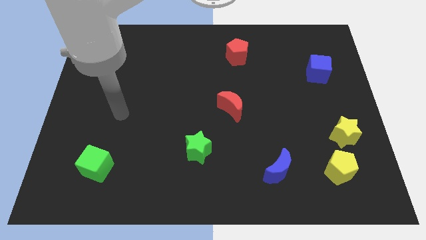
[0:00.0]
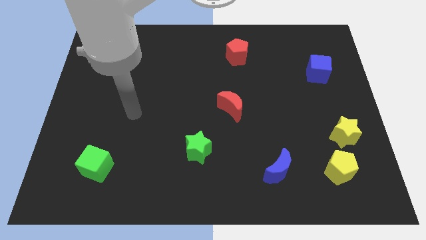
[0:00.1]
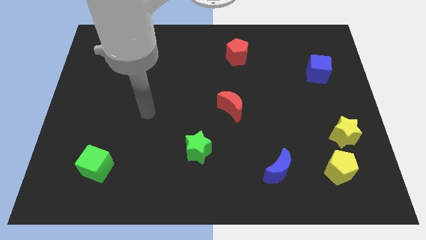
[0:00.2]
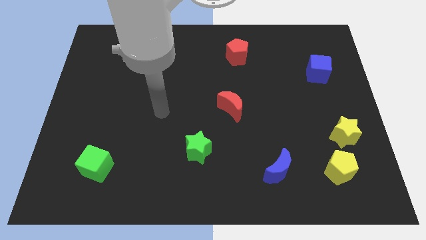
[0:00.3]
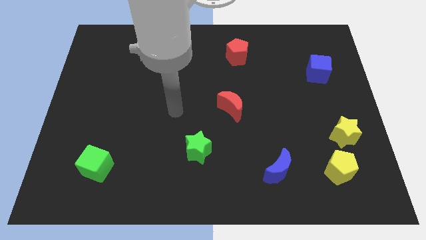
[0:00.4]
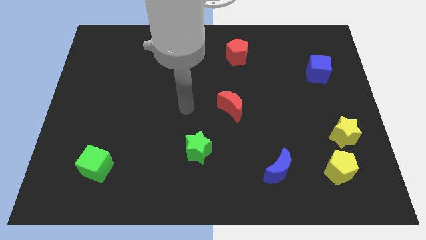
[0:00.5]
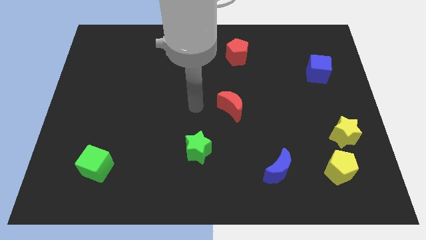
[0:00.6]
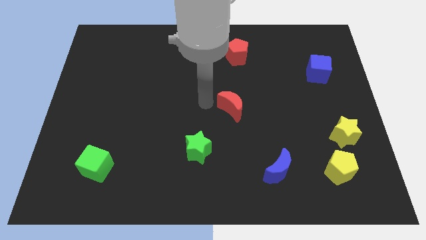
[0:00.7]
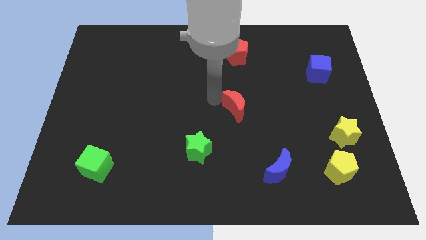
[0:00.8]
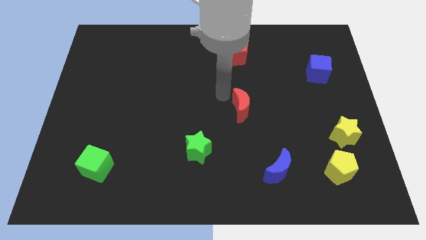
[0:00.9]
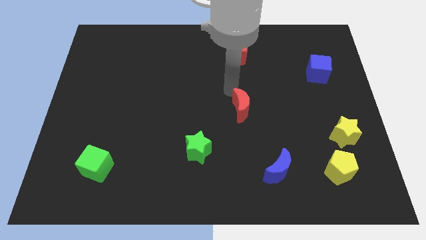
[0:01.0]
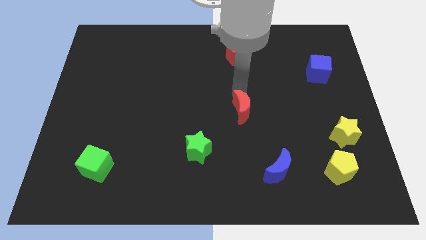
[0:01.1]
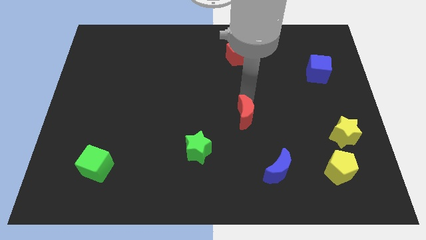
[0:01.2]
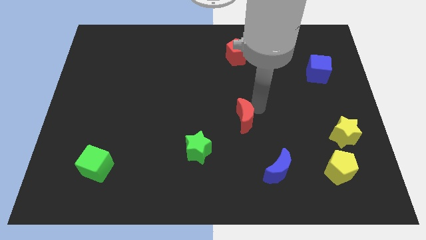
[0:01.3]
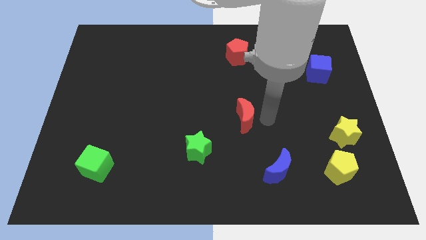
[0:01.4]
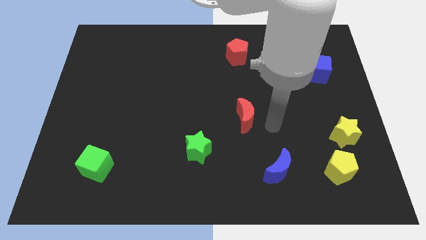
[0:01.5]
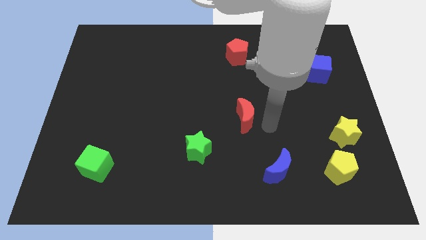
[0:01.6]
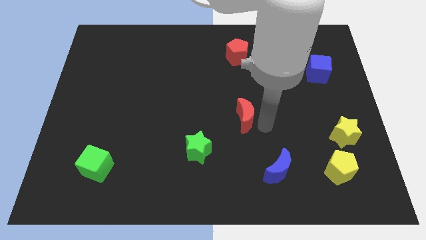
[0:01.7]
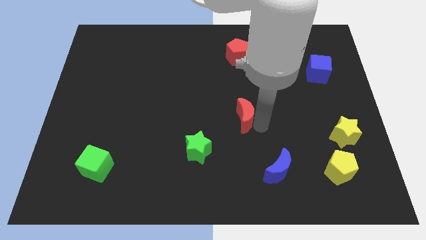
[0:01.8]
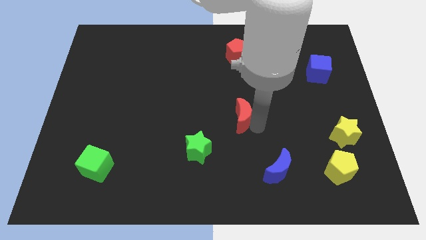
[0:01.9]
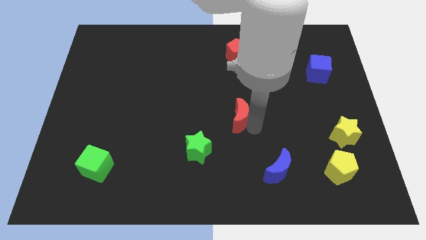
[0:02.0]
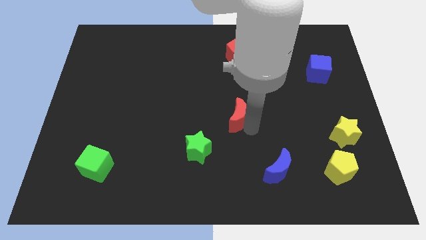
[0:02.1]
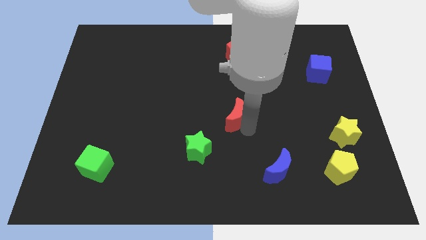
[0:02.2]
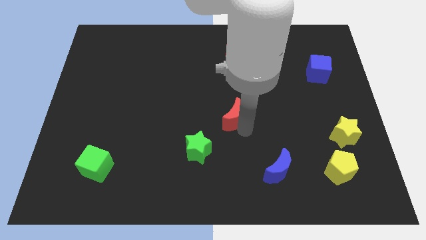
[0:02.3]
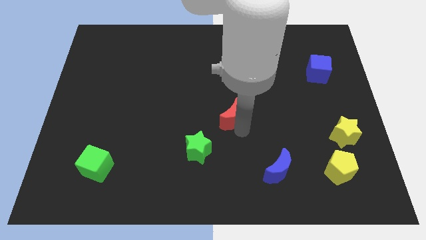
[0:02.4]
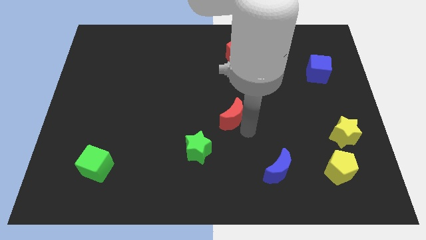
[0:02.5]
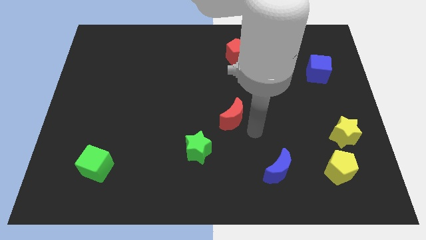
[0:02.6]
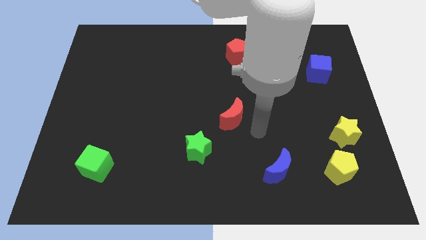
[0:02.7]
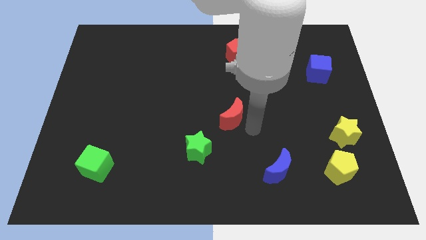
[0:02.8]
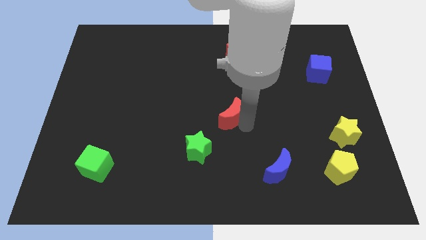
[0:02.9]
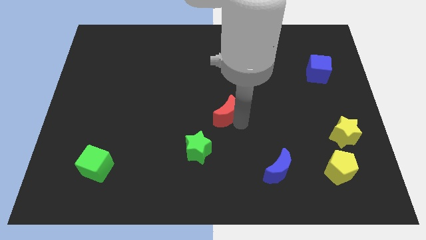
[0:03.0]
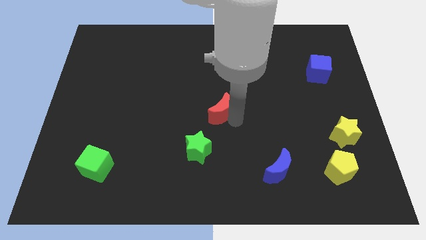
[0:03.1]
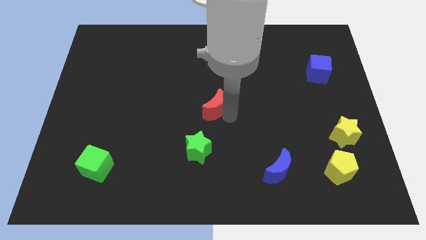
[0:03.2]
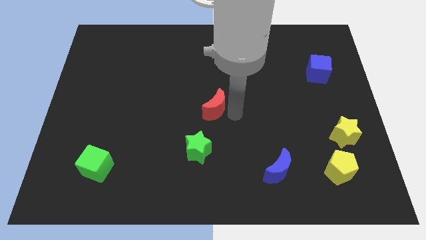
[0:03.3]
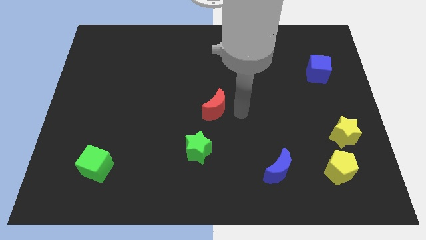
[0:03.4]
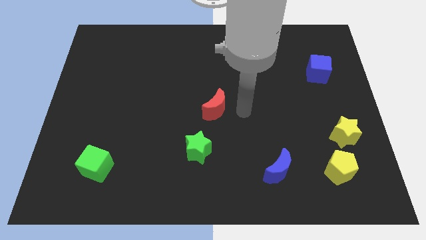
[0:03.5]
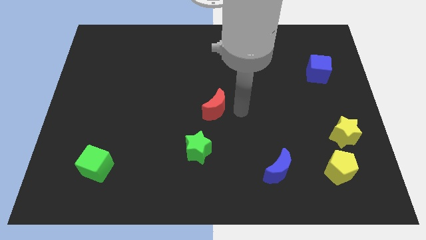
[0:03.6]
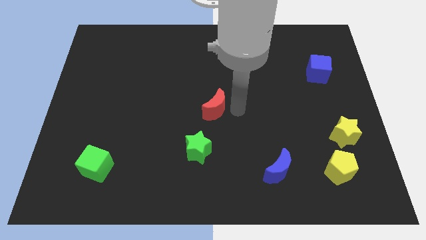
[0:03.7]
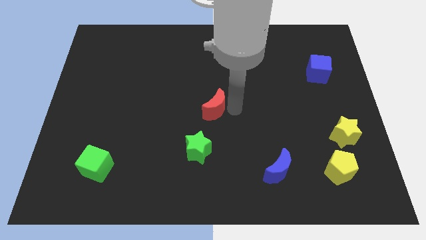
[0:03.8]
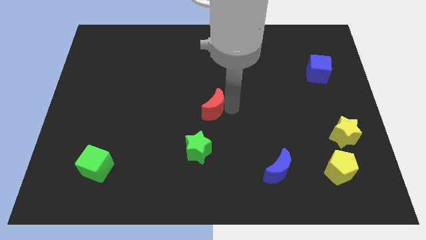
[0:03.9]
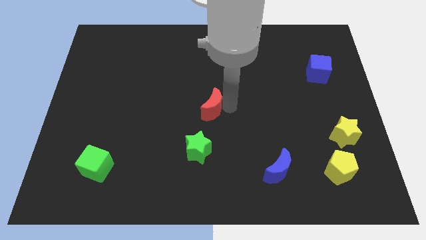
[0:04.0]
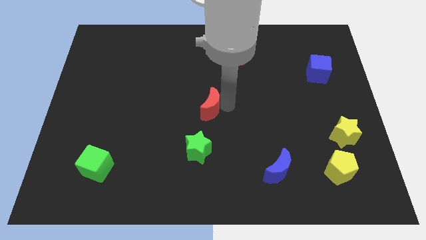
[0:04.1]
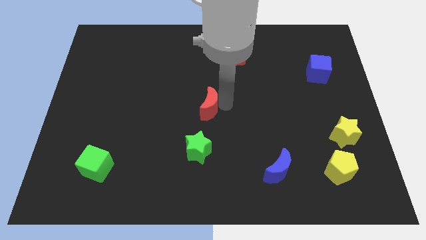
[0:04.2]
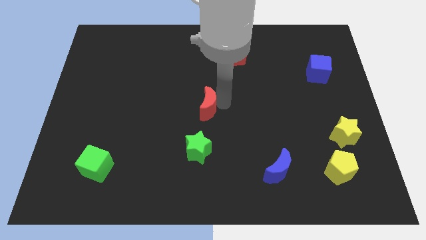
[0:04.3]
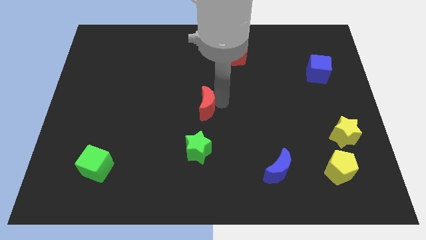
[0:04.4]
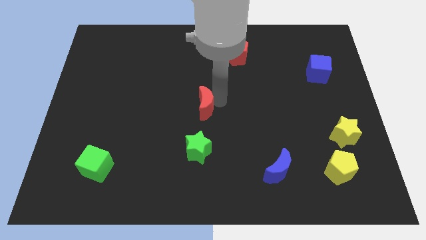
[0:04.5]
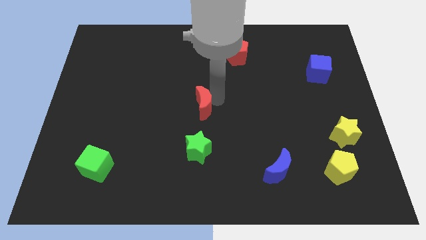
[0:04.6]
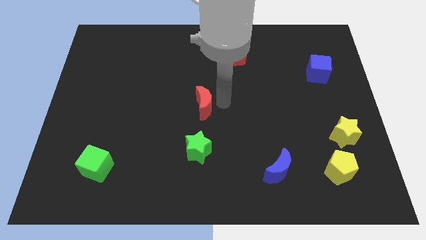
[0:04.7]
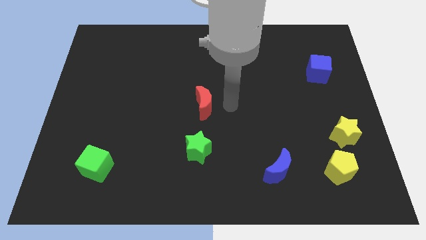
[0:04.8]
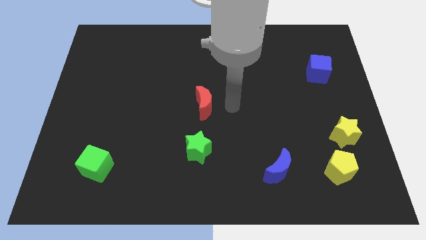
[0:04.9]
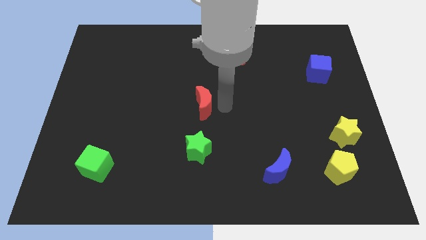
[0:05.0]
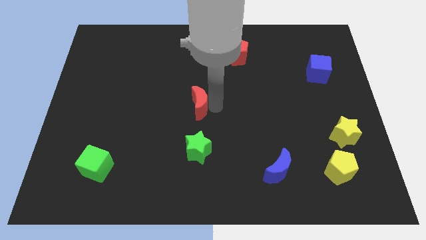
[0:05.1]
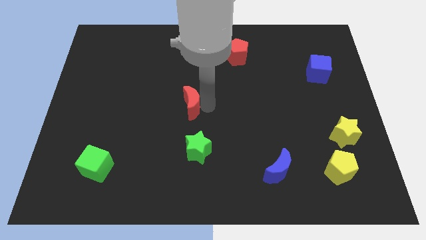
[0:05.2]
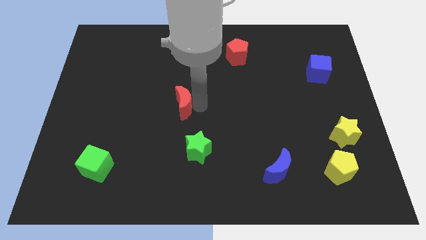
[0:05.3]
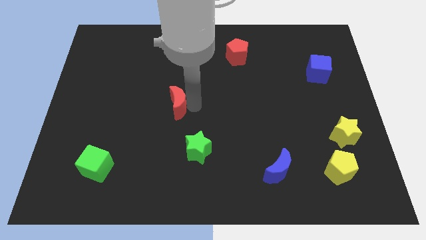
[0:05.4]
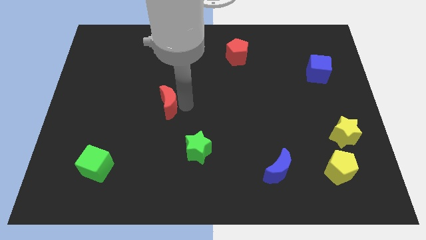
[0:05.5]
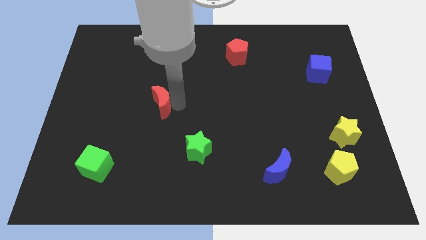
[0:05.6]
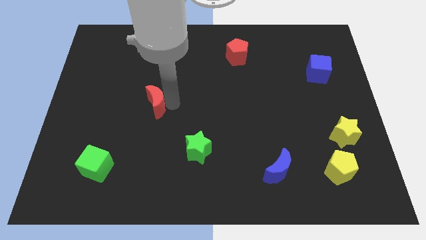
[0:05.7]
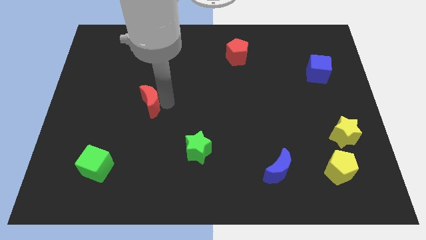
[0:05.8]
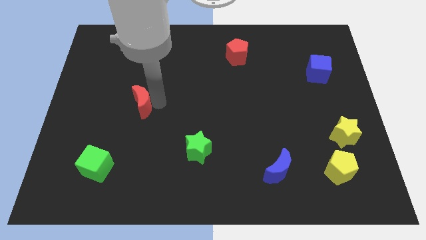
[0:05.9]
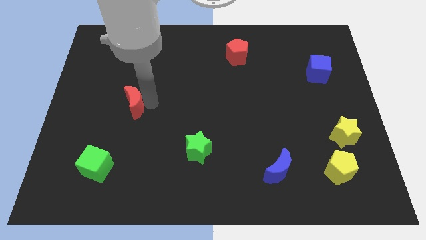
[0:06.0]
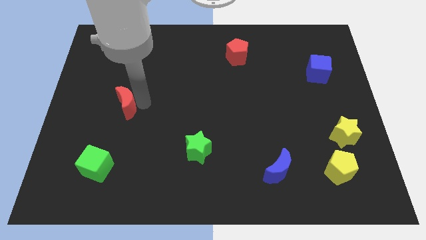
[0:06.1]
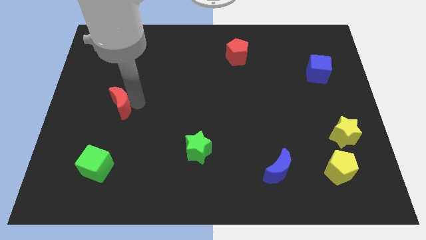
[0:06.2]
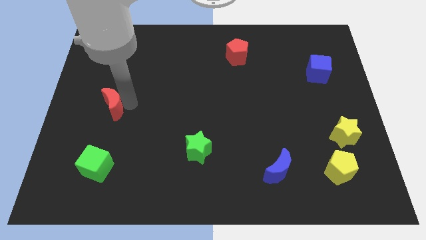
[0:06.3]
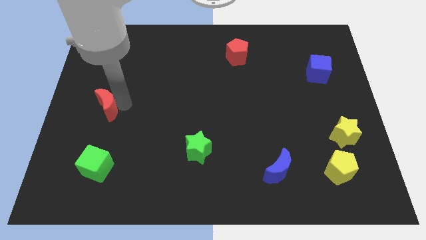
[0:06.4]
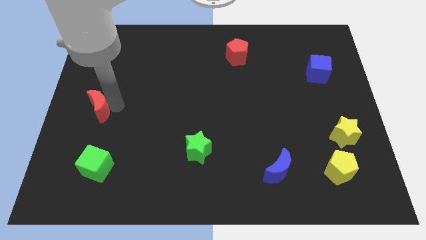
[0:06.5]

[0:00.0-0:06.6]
push the red moon to the left side
